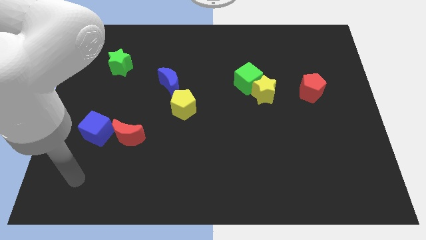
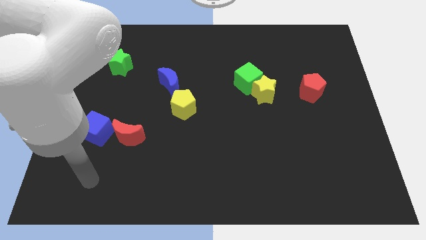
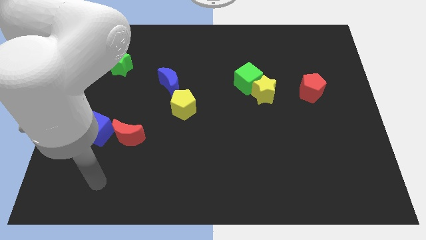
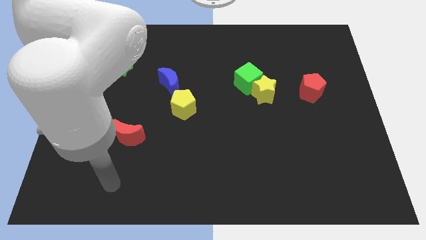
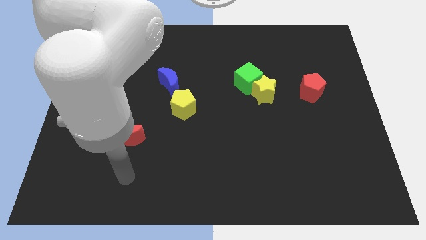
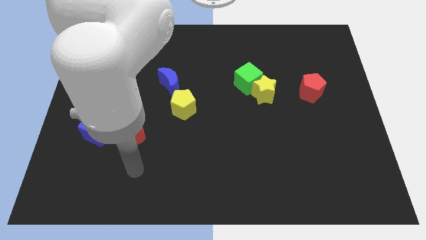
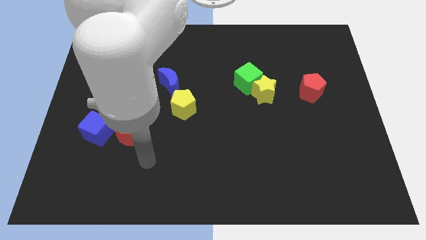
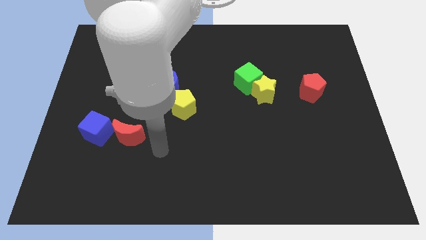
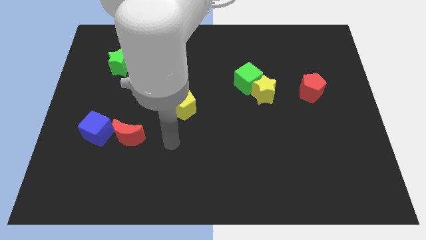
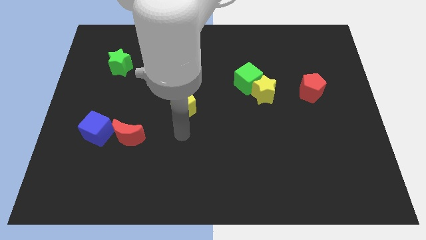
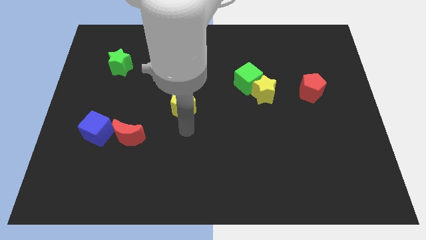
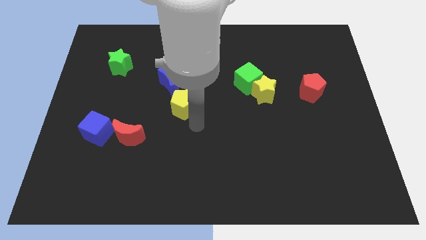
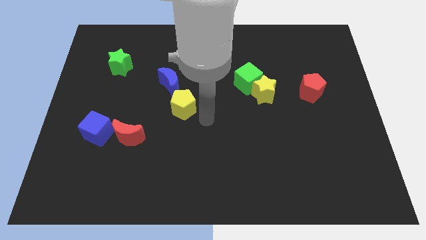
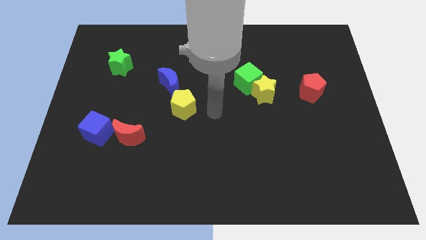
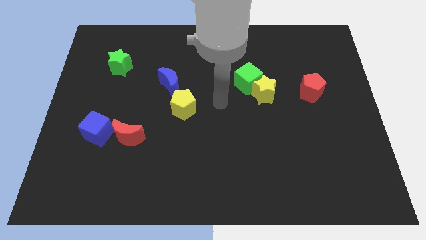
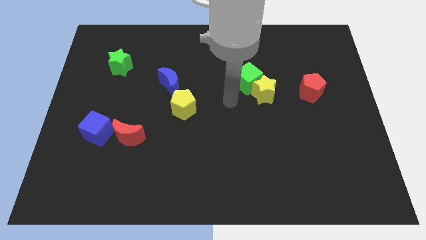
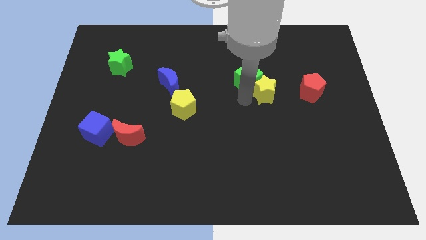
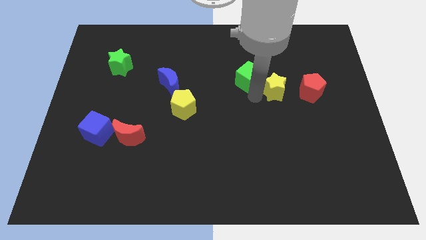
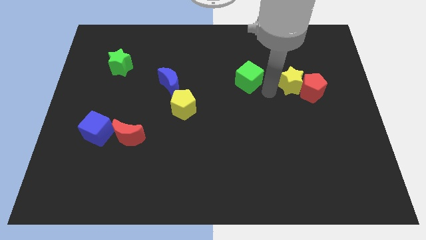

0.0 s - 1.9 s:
separate the green cube from the yellow star

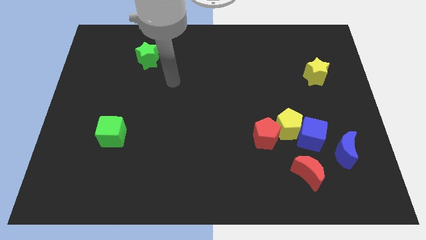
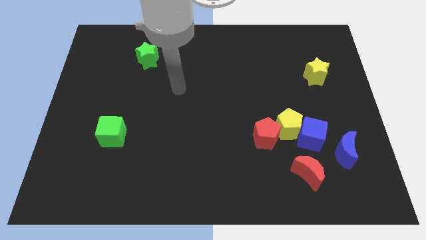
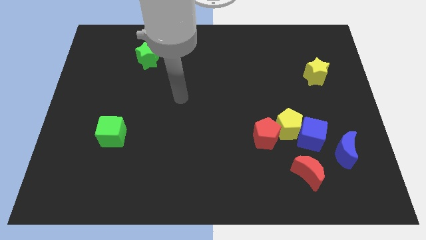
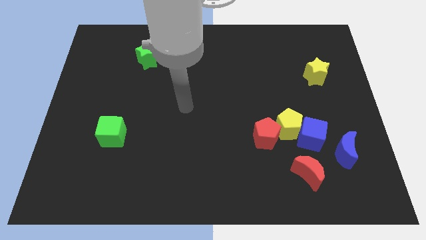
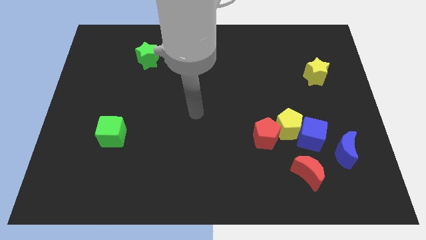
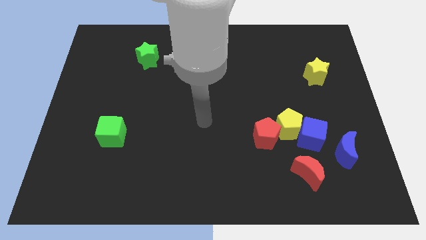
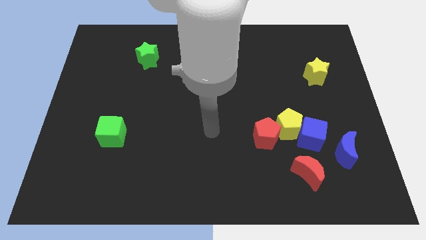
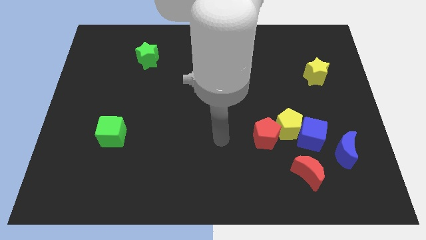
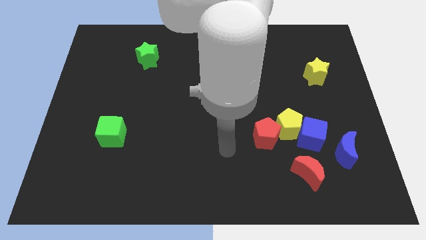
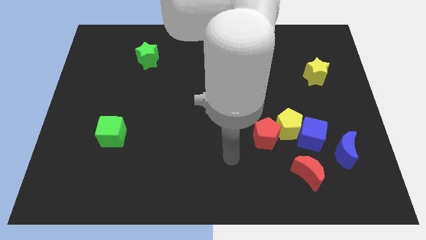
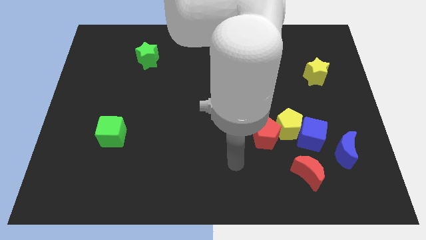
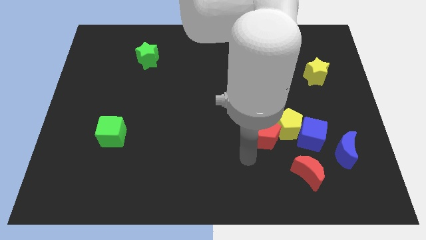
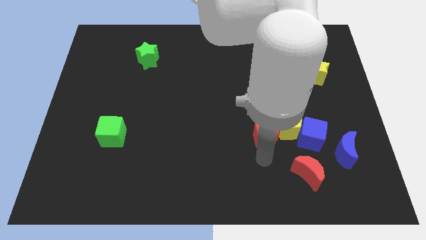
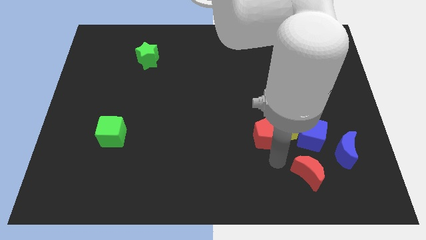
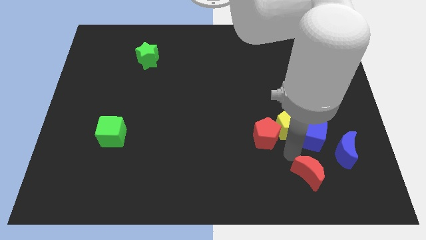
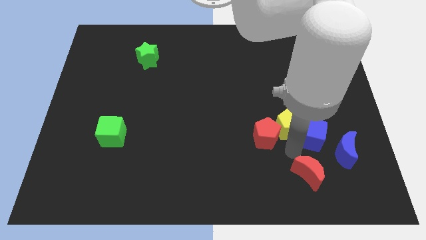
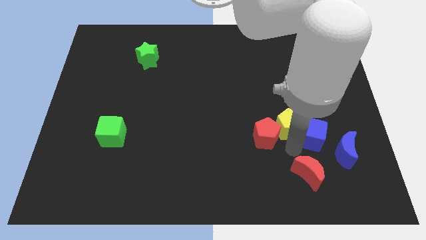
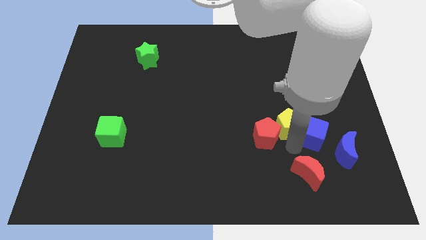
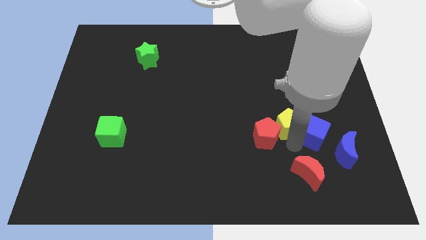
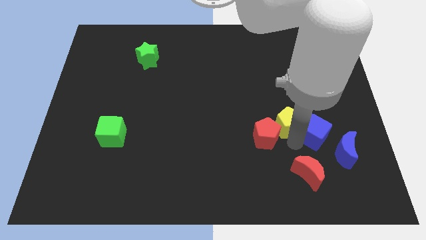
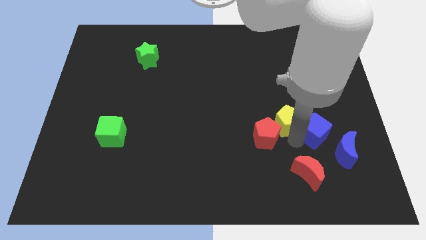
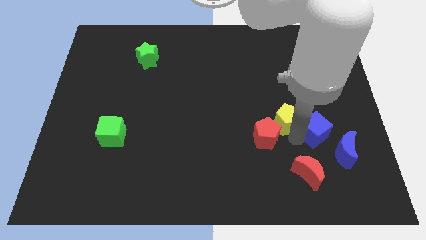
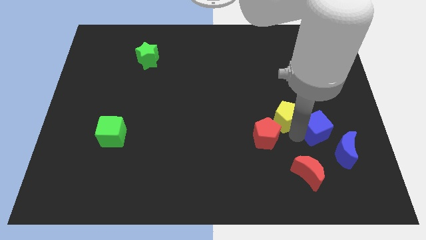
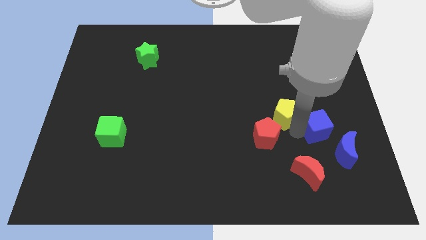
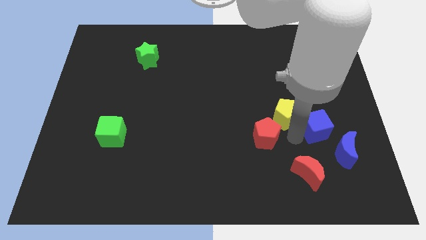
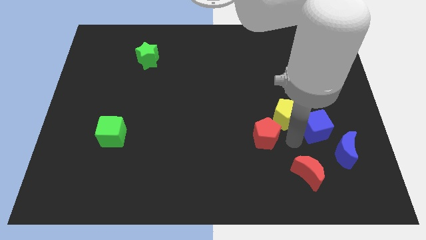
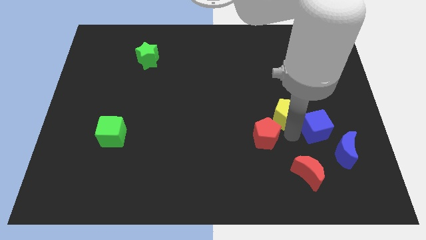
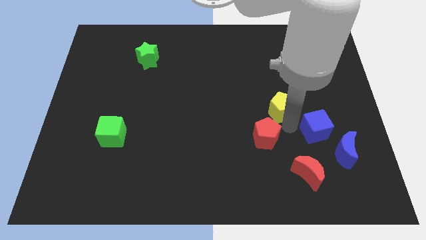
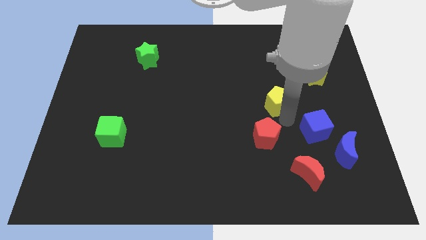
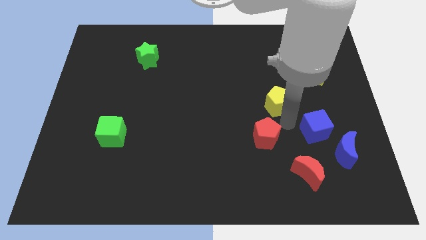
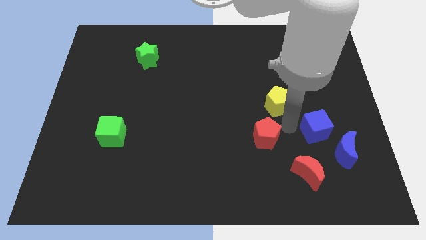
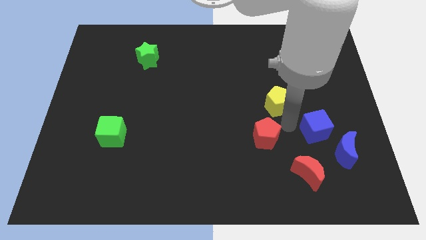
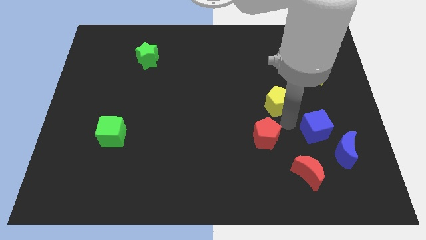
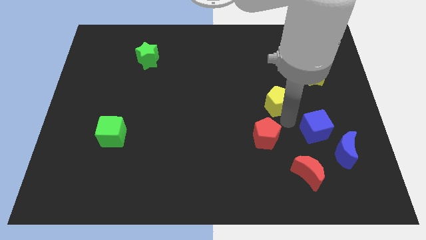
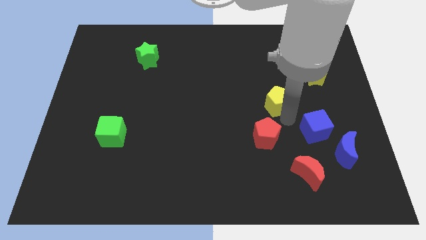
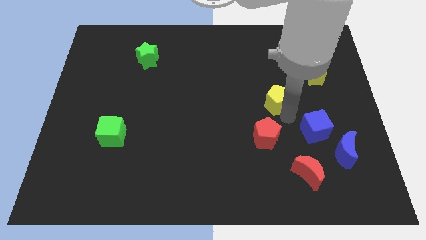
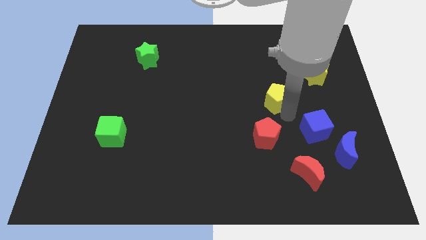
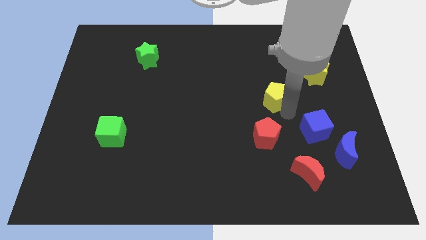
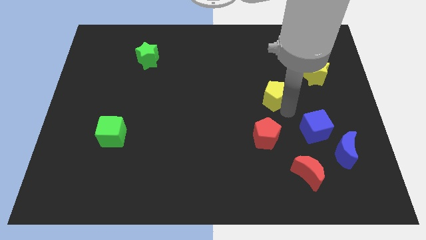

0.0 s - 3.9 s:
move the yellow pentagon away from the blue cube and red pentagon

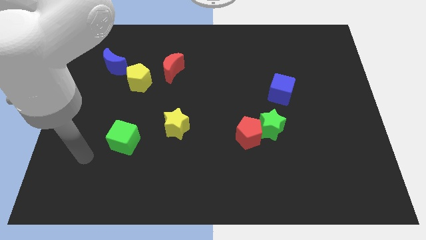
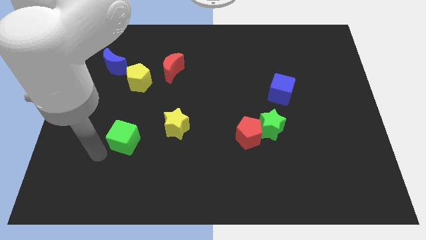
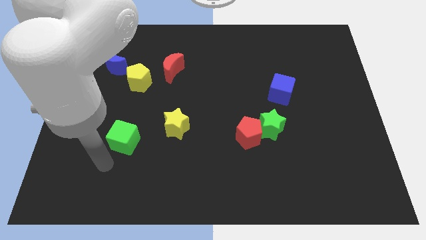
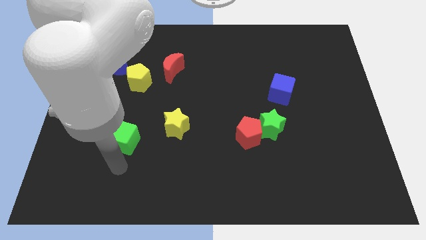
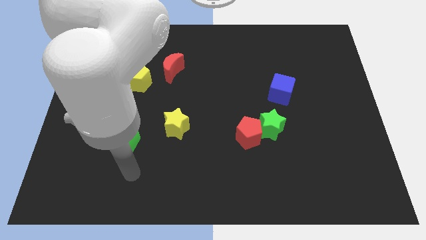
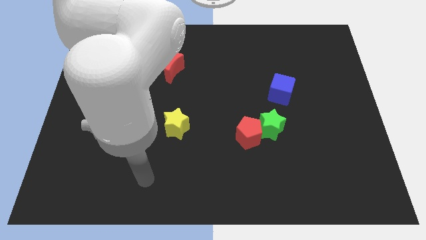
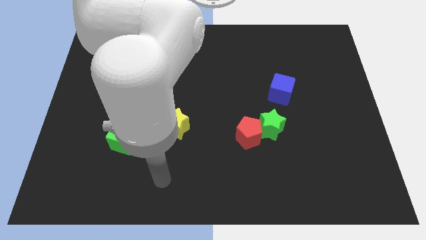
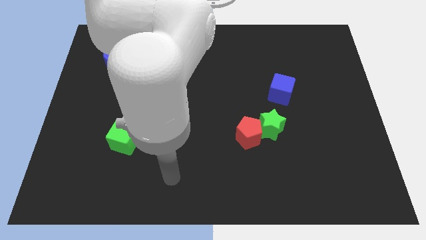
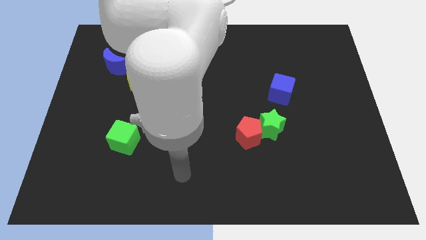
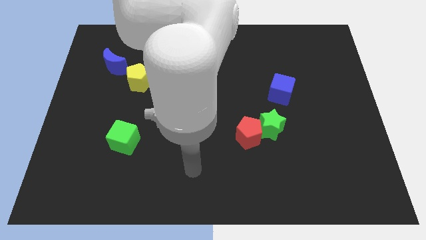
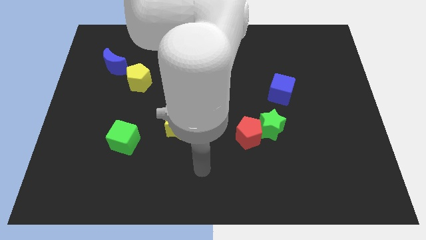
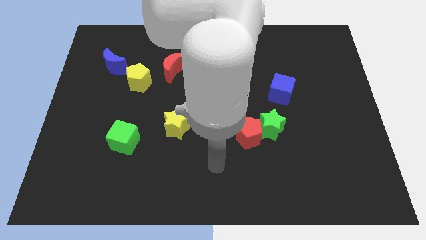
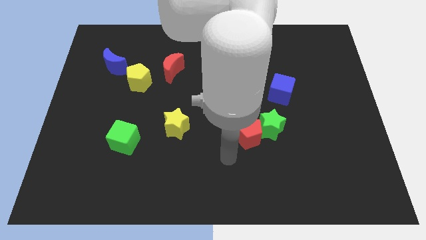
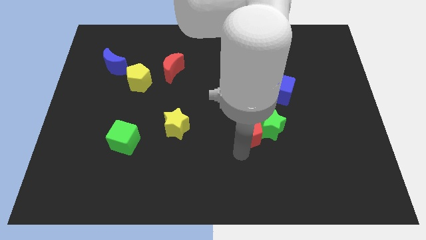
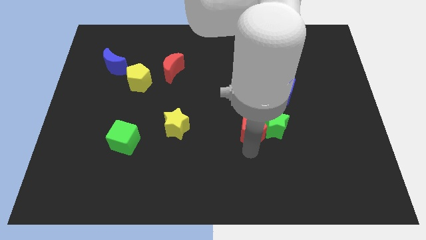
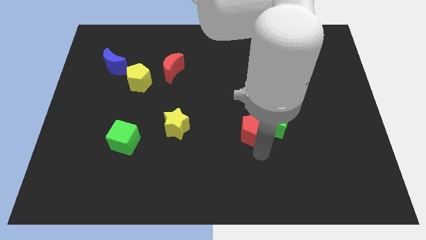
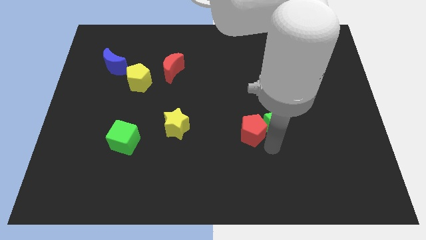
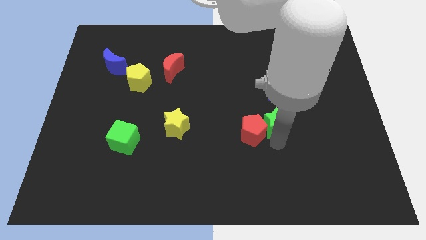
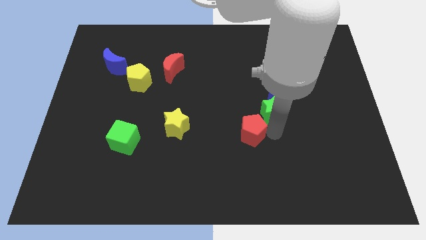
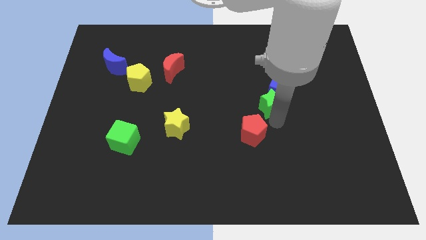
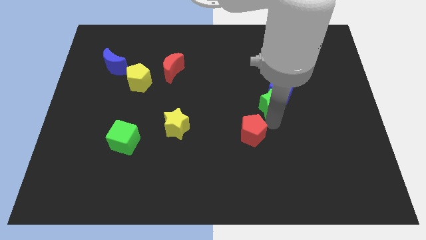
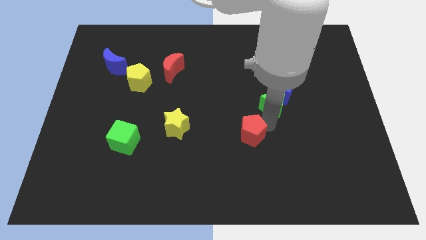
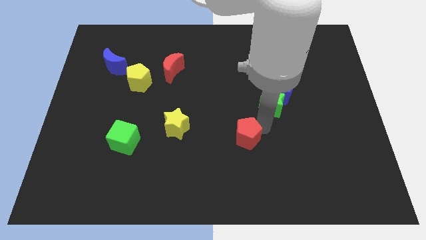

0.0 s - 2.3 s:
move the red pentagon away from the green star

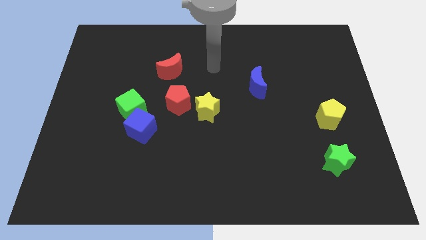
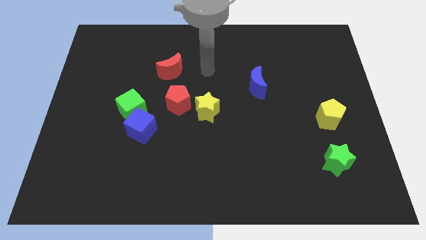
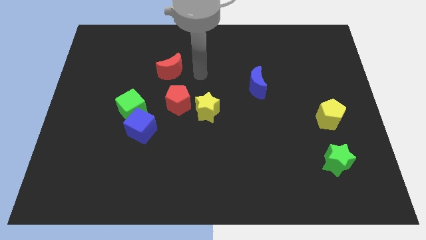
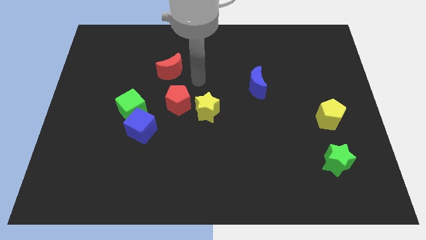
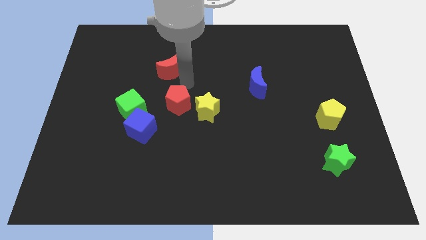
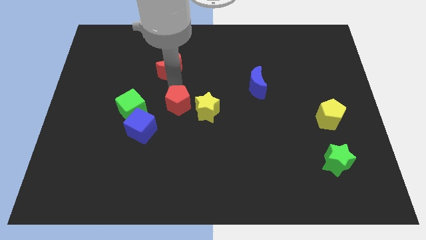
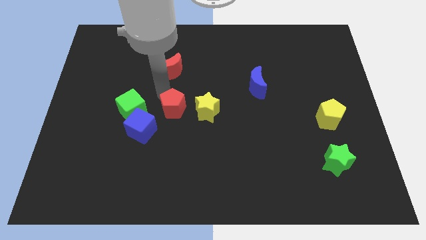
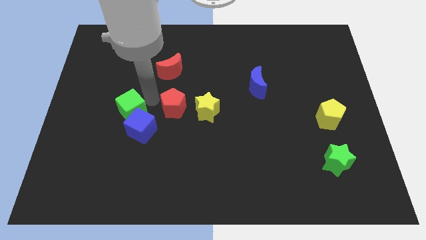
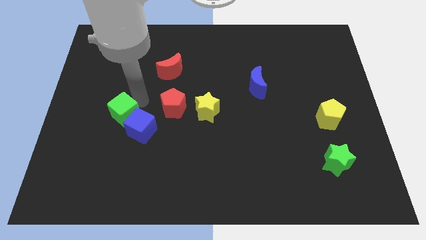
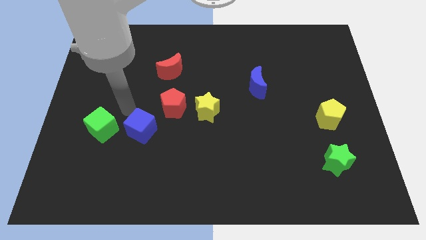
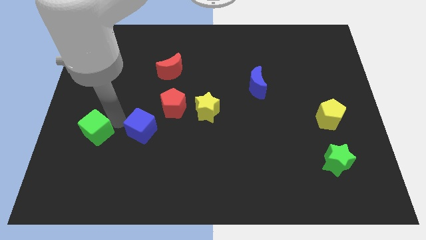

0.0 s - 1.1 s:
pull the blue cube apart from the green cube

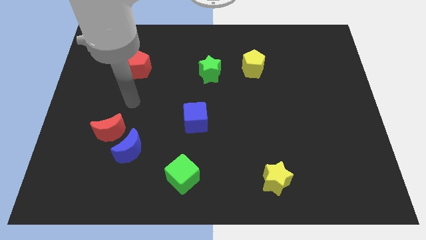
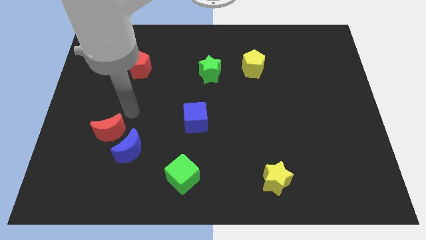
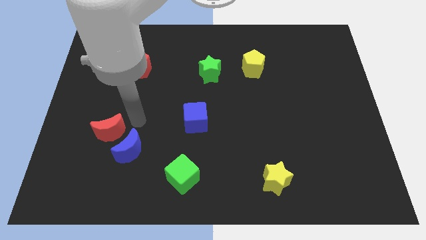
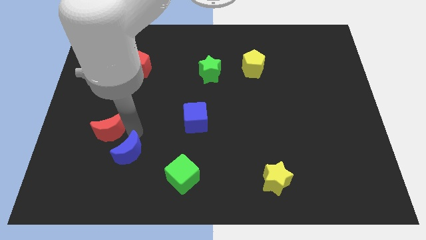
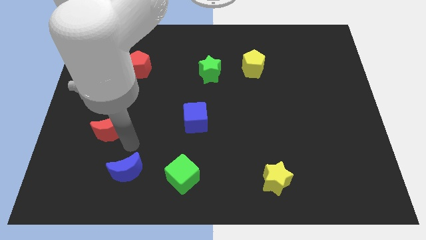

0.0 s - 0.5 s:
pull the red moon apart from the blue moon
